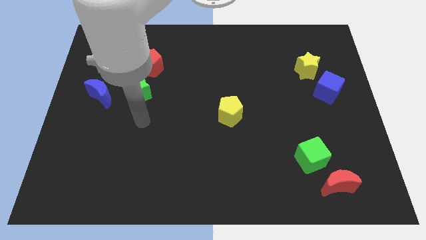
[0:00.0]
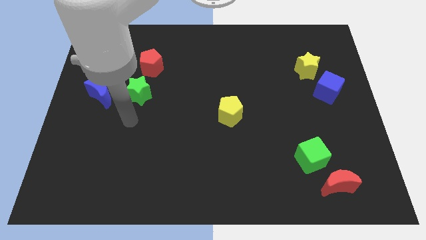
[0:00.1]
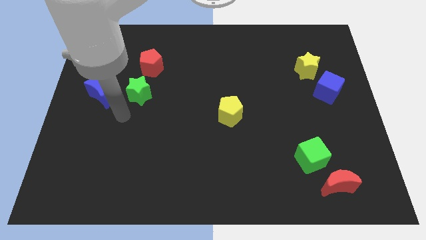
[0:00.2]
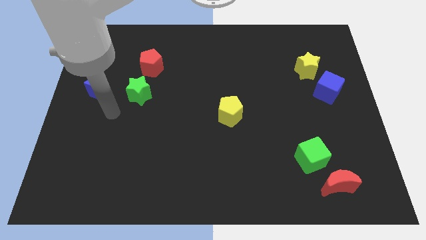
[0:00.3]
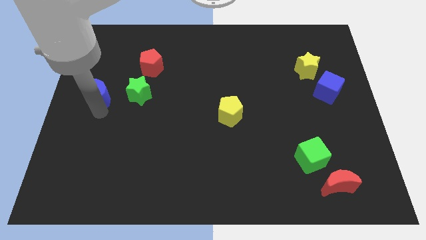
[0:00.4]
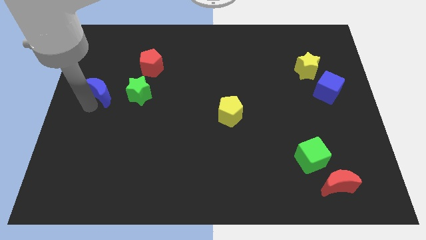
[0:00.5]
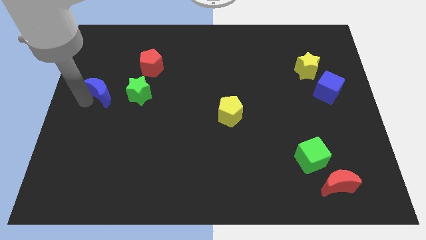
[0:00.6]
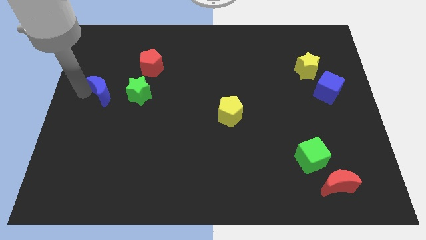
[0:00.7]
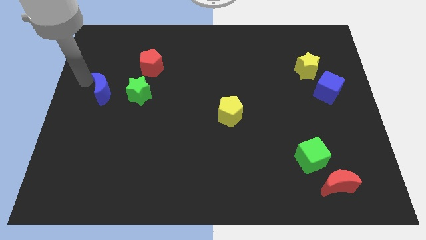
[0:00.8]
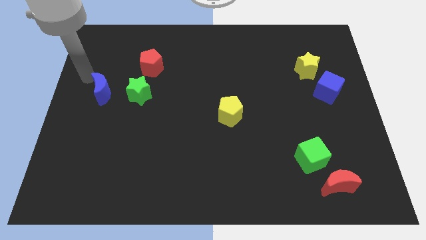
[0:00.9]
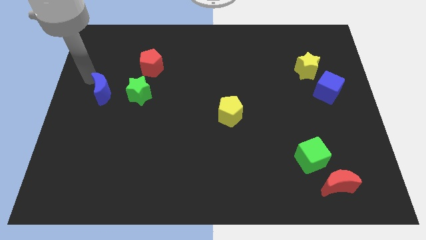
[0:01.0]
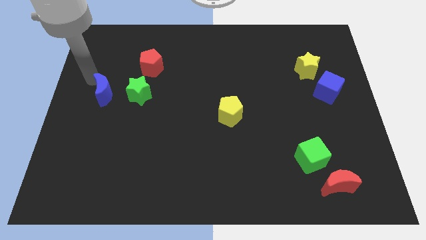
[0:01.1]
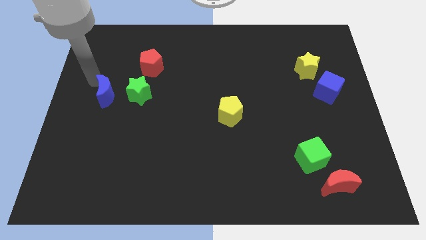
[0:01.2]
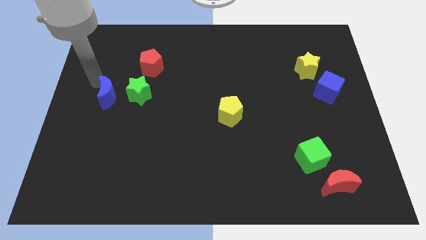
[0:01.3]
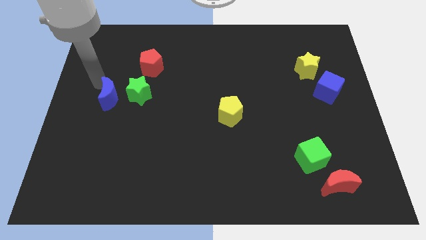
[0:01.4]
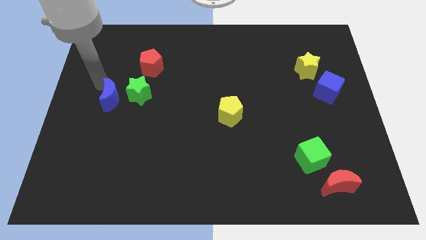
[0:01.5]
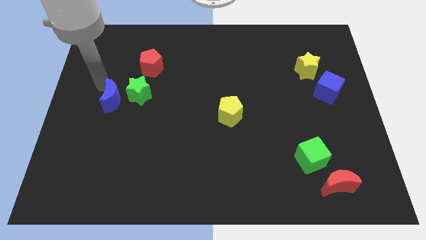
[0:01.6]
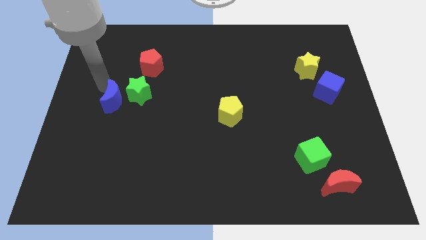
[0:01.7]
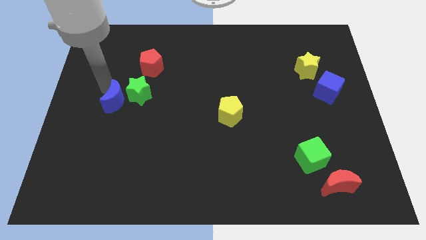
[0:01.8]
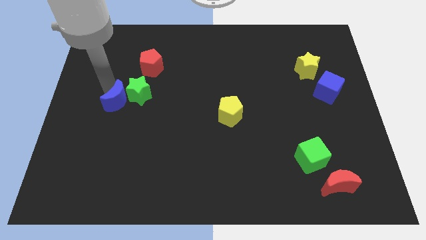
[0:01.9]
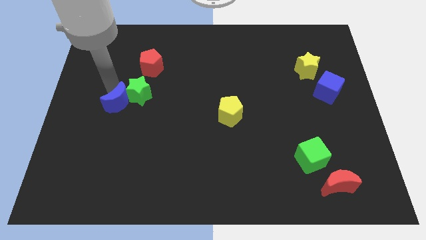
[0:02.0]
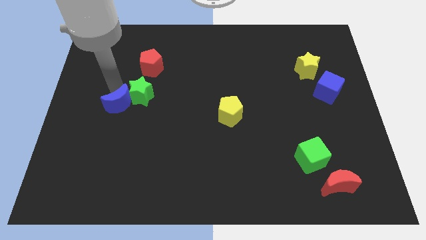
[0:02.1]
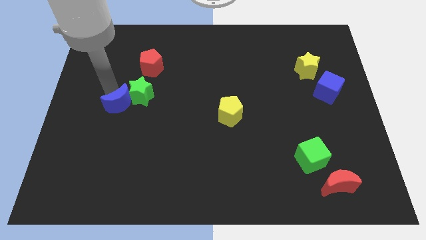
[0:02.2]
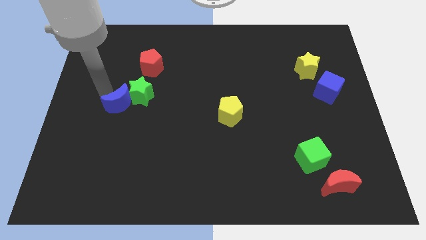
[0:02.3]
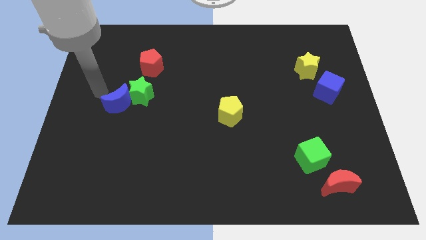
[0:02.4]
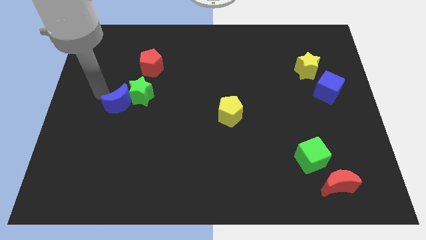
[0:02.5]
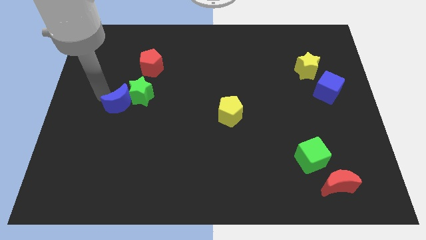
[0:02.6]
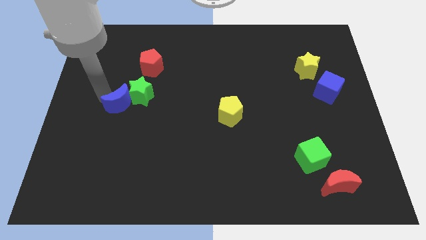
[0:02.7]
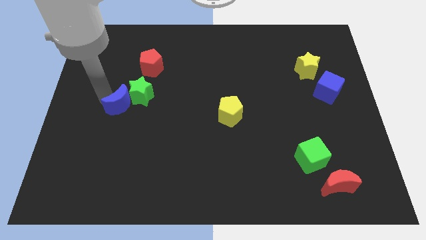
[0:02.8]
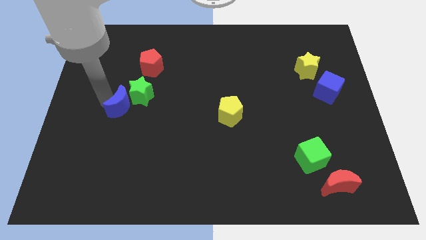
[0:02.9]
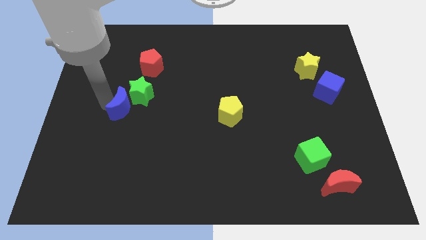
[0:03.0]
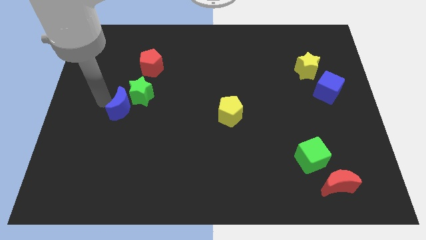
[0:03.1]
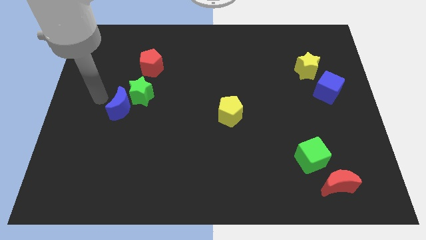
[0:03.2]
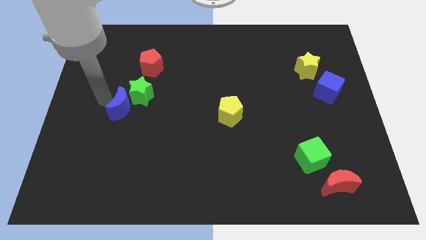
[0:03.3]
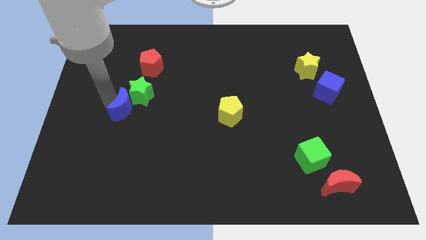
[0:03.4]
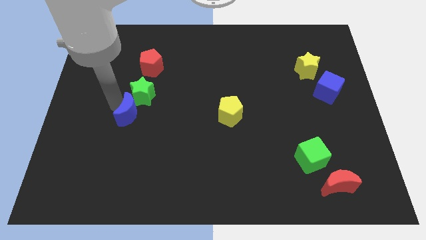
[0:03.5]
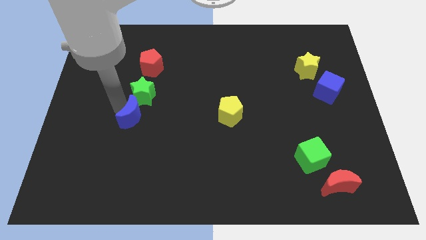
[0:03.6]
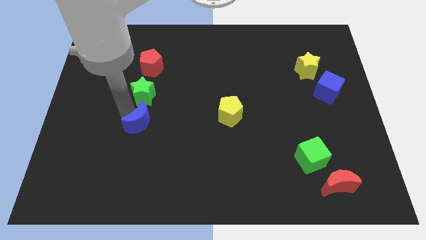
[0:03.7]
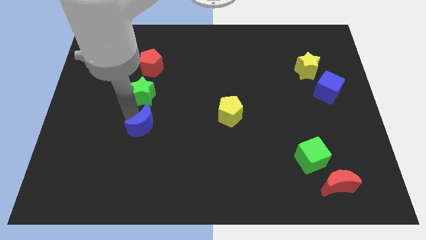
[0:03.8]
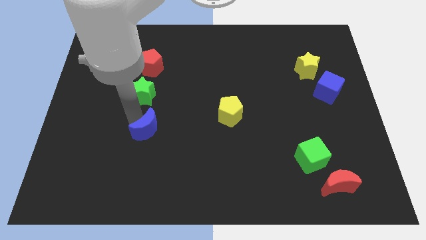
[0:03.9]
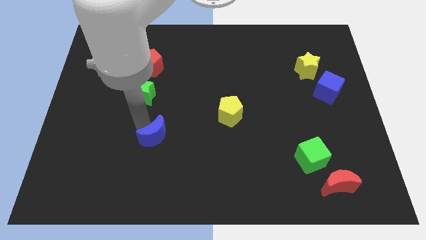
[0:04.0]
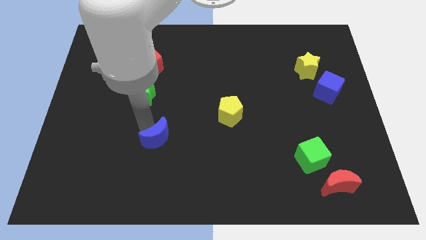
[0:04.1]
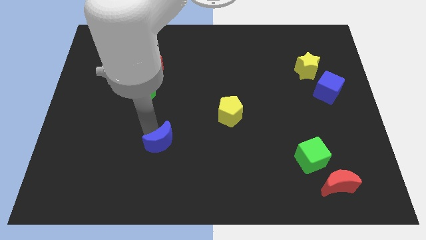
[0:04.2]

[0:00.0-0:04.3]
push the blue moon downwards and then right

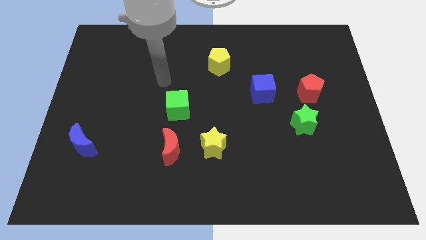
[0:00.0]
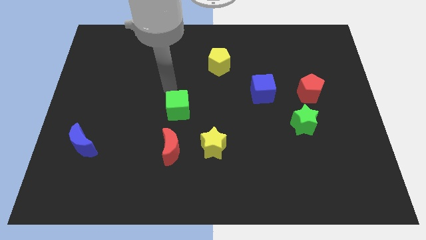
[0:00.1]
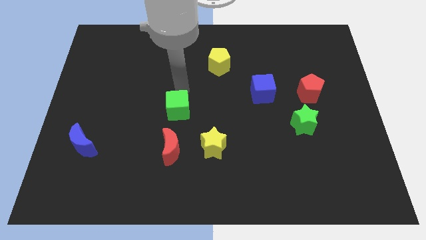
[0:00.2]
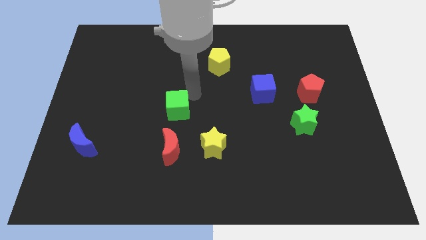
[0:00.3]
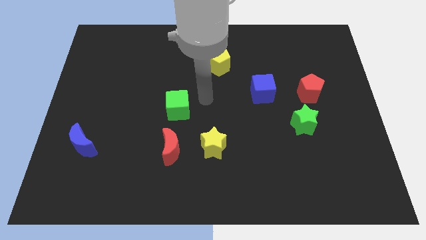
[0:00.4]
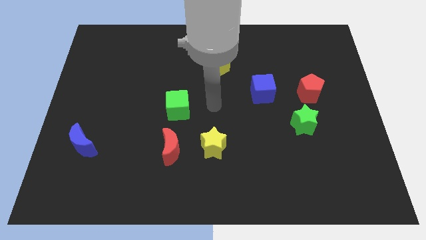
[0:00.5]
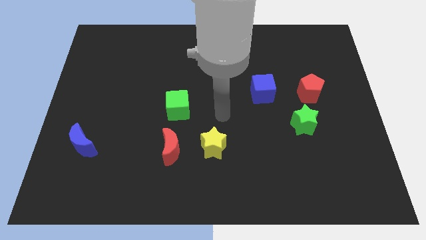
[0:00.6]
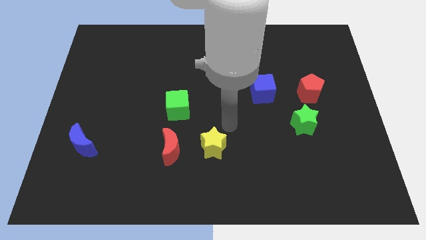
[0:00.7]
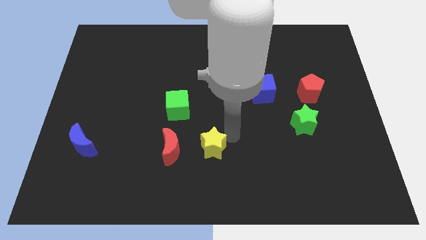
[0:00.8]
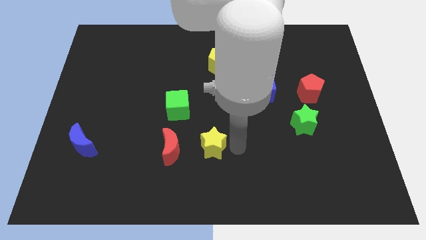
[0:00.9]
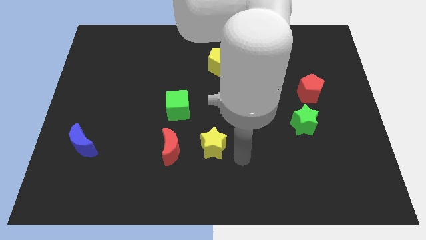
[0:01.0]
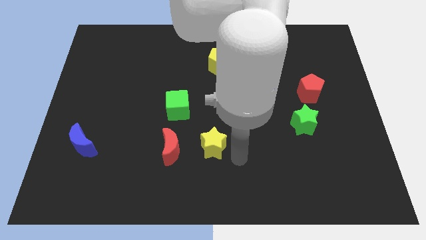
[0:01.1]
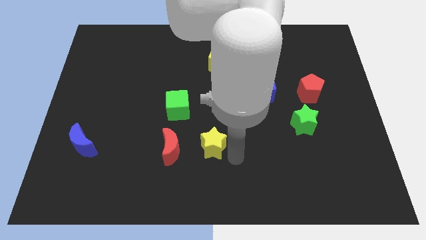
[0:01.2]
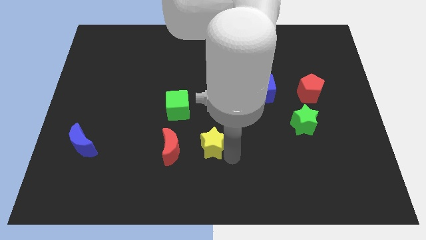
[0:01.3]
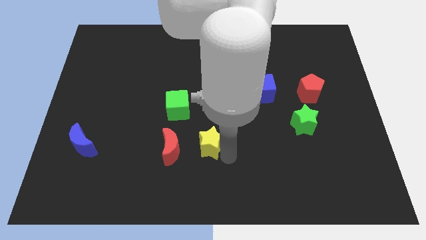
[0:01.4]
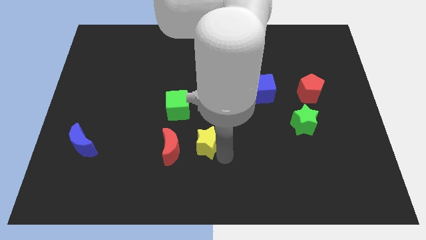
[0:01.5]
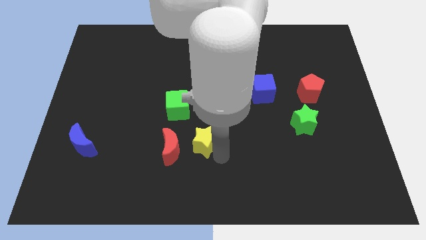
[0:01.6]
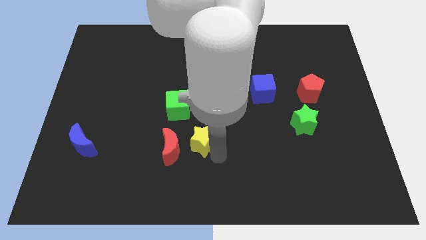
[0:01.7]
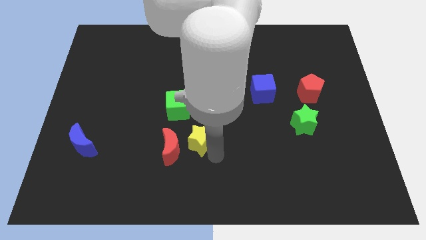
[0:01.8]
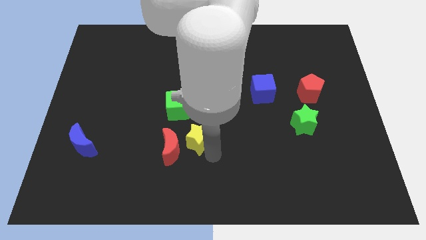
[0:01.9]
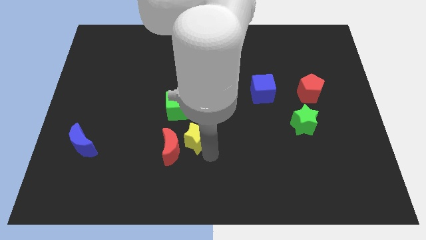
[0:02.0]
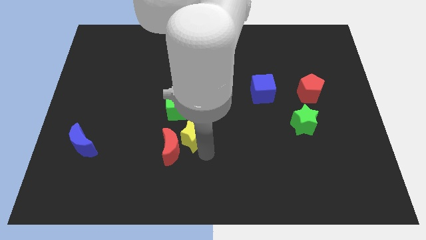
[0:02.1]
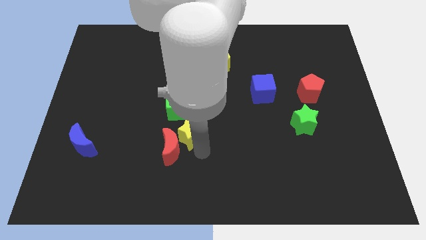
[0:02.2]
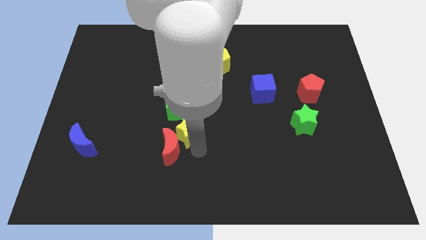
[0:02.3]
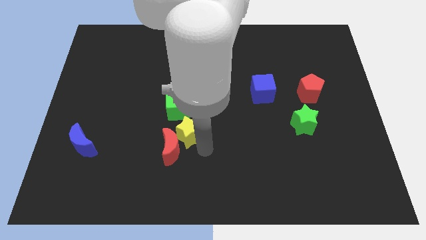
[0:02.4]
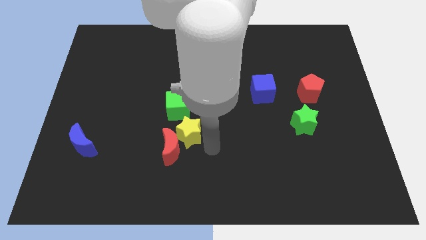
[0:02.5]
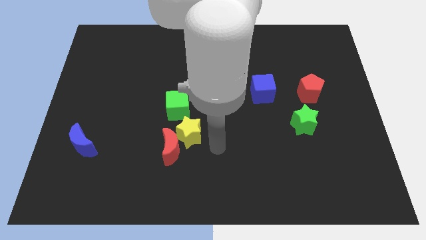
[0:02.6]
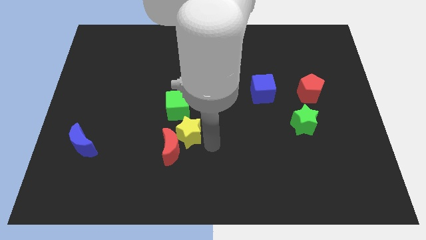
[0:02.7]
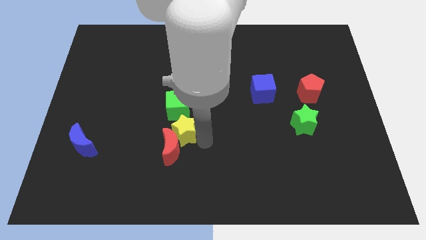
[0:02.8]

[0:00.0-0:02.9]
slide the yellow star a bit up and left

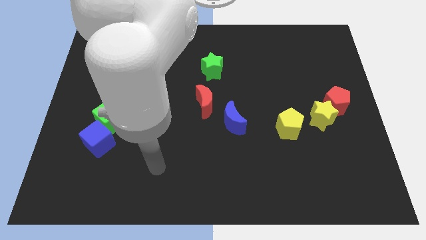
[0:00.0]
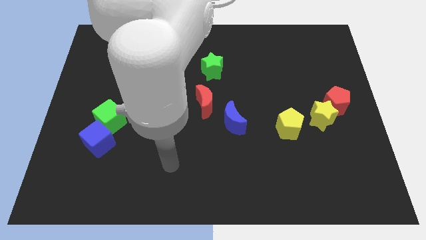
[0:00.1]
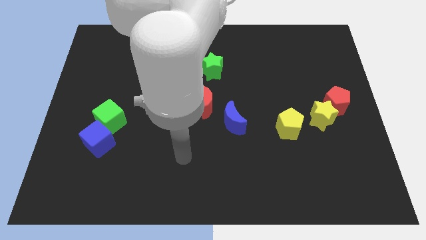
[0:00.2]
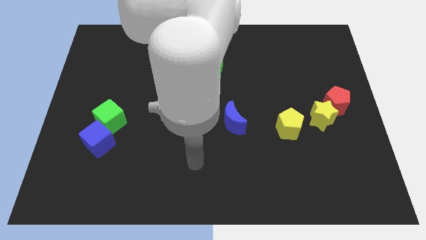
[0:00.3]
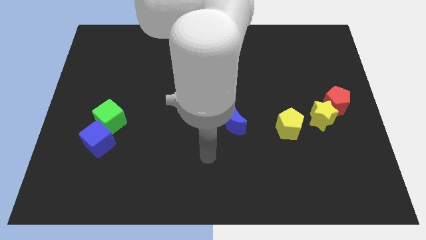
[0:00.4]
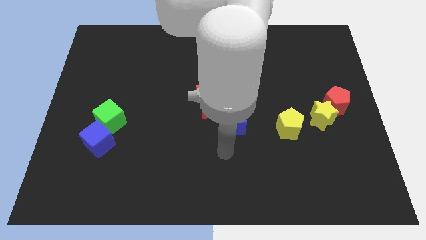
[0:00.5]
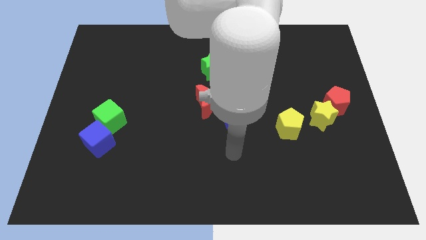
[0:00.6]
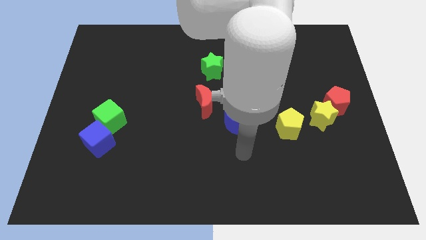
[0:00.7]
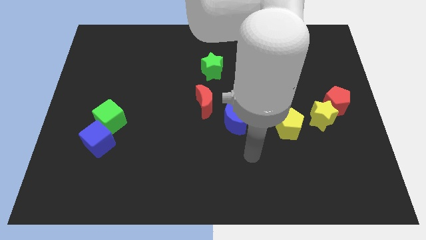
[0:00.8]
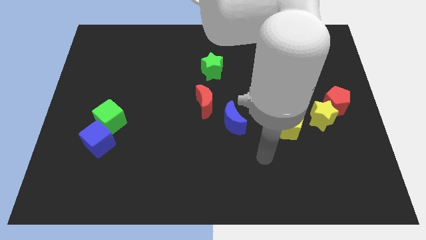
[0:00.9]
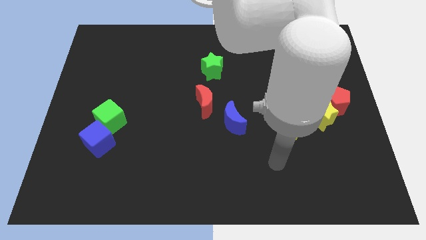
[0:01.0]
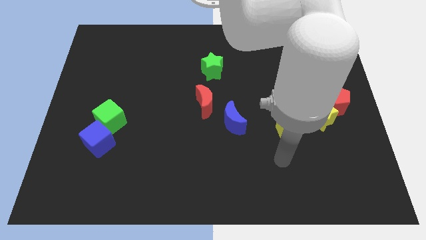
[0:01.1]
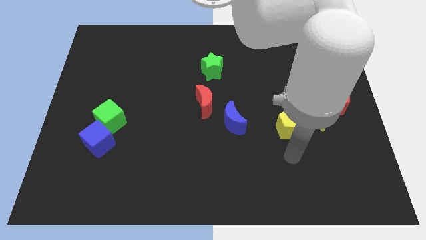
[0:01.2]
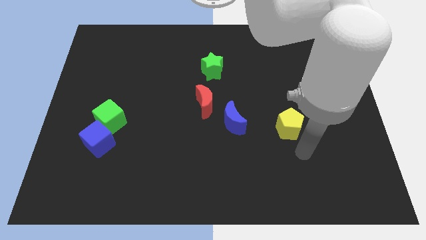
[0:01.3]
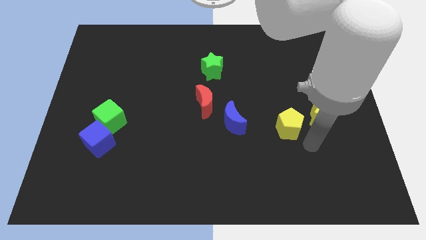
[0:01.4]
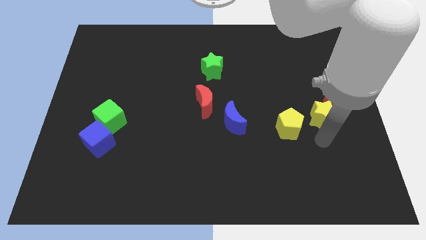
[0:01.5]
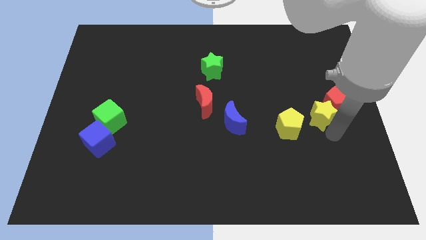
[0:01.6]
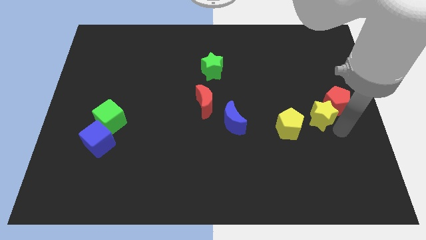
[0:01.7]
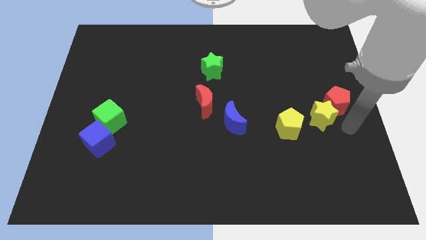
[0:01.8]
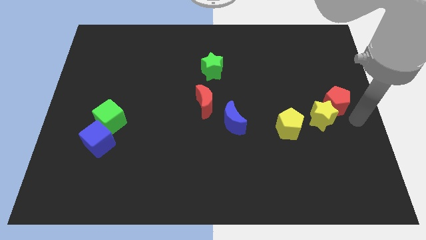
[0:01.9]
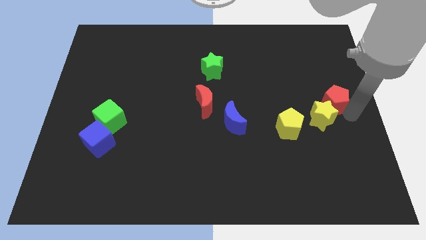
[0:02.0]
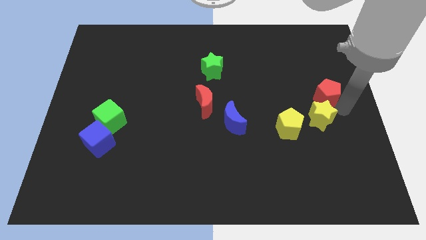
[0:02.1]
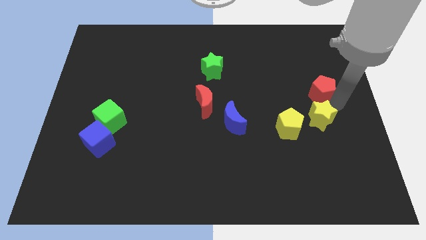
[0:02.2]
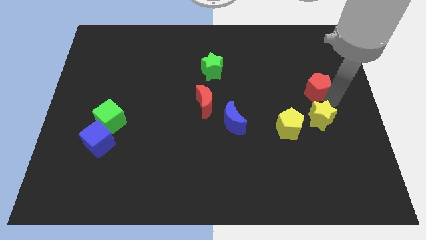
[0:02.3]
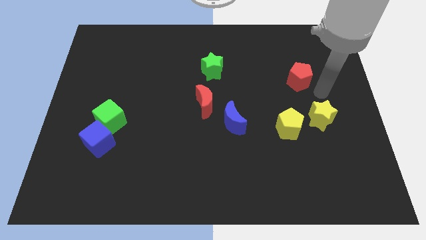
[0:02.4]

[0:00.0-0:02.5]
slightly push the red pentagon diagonally upwards and left
